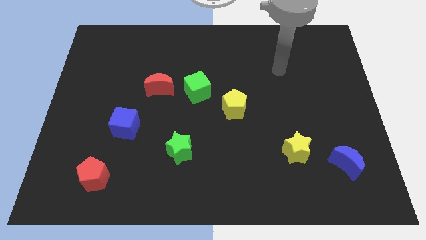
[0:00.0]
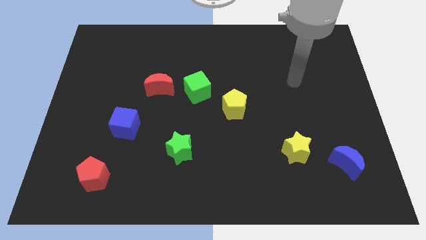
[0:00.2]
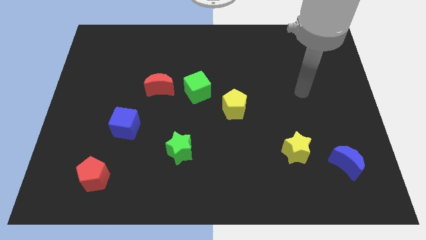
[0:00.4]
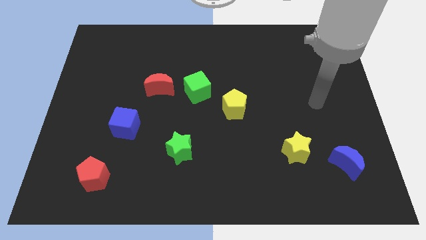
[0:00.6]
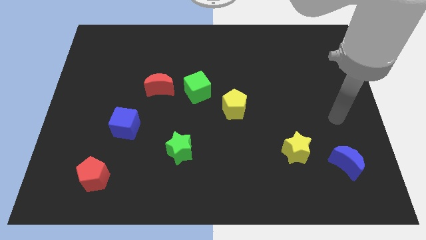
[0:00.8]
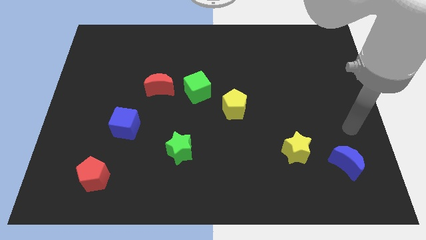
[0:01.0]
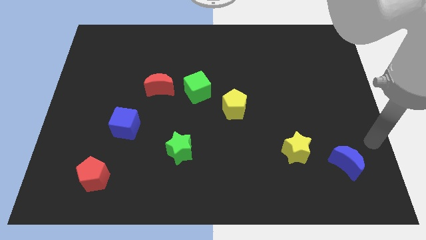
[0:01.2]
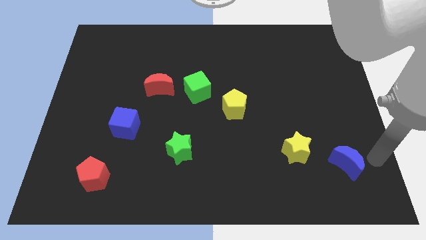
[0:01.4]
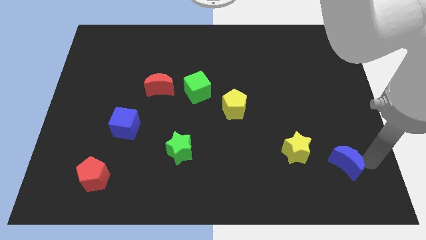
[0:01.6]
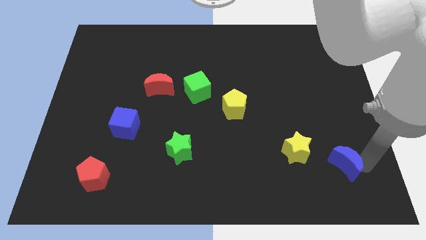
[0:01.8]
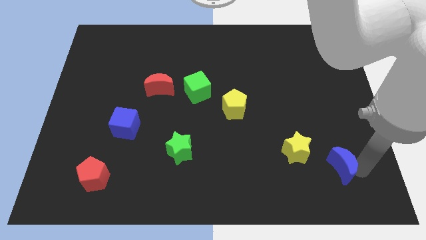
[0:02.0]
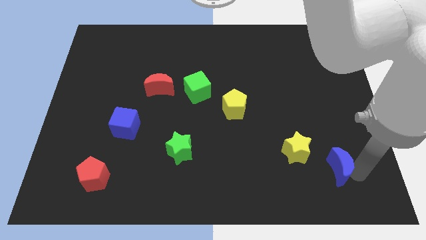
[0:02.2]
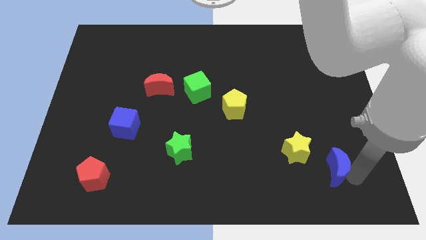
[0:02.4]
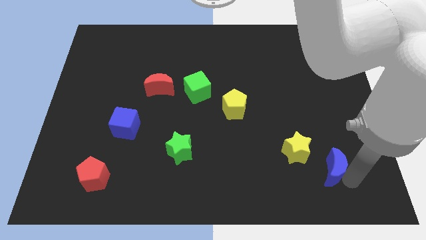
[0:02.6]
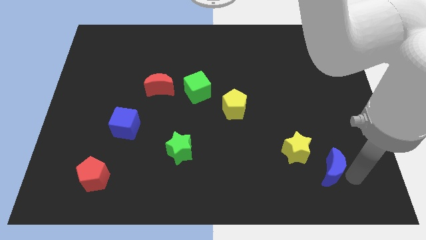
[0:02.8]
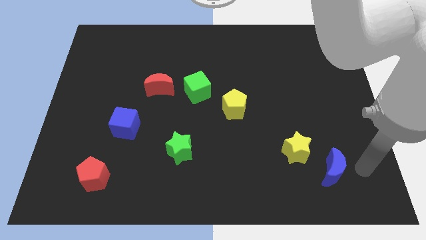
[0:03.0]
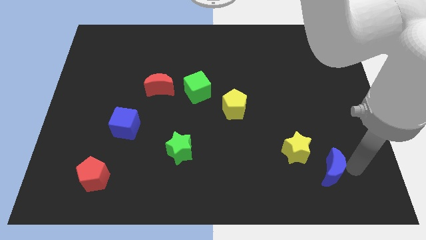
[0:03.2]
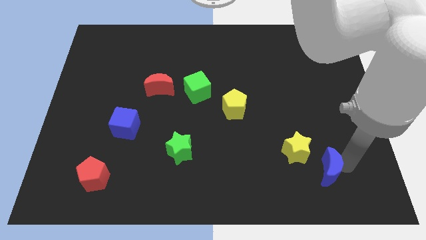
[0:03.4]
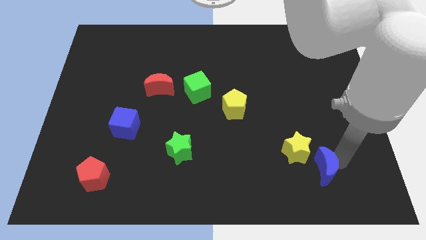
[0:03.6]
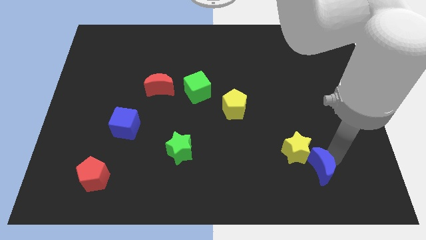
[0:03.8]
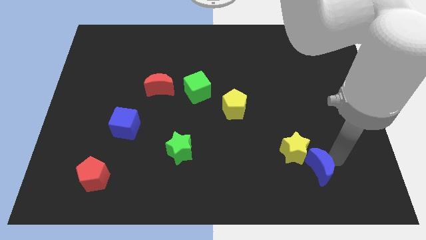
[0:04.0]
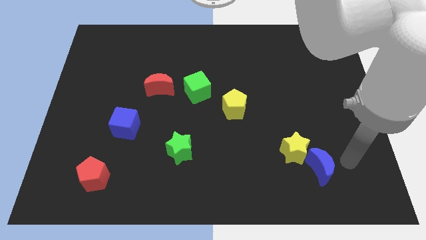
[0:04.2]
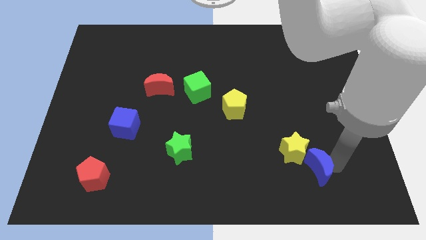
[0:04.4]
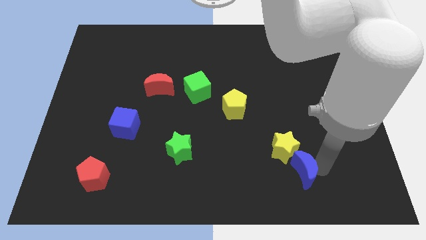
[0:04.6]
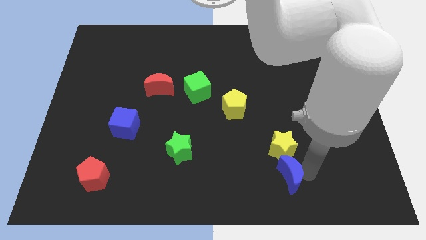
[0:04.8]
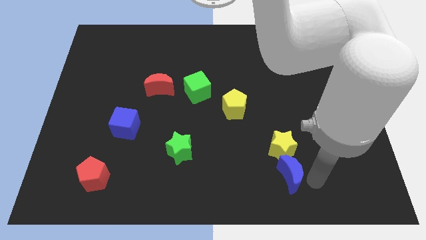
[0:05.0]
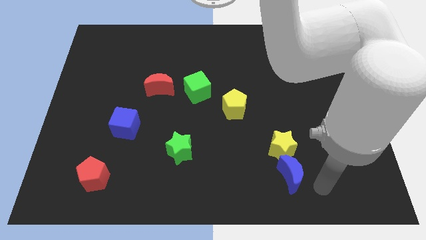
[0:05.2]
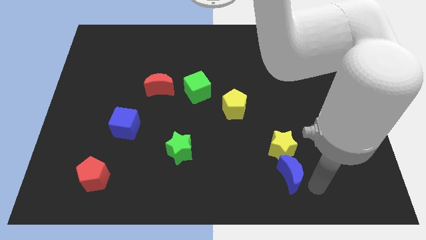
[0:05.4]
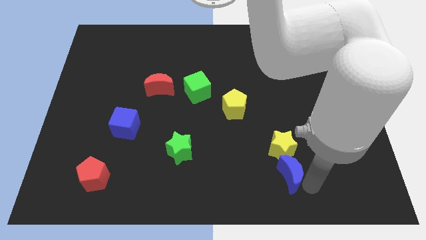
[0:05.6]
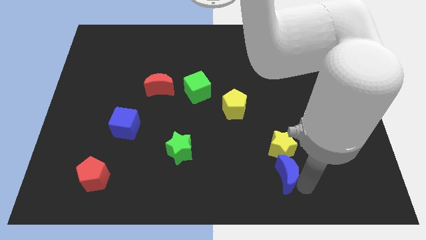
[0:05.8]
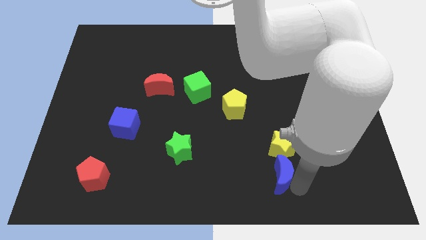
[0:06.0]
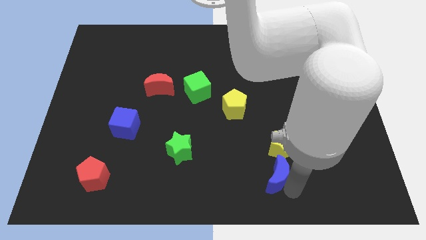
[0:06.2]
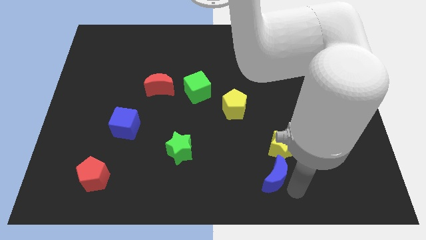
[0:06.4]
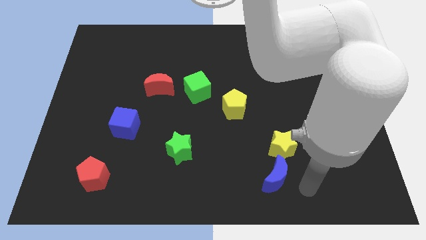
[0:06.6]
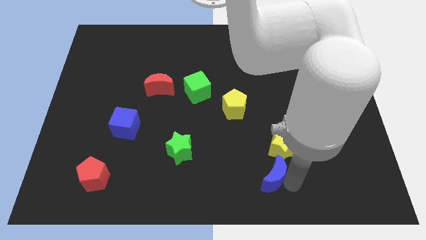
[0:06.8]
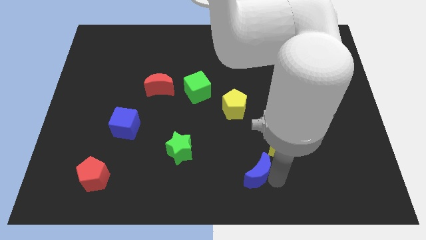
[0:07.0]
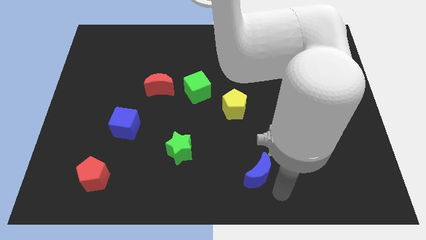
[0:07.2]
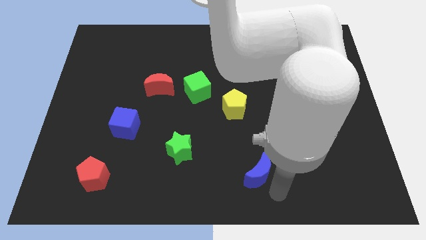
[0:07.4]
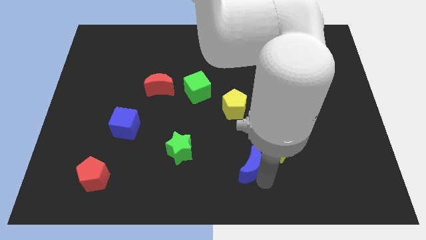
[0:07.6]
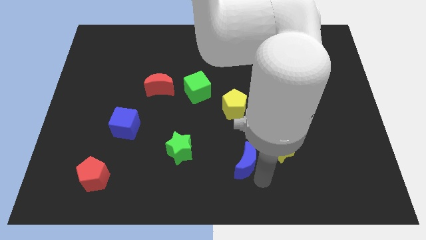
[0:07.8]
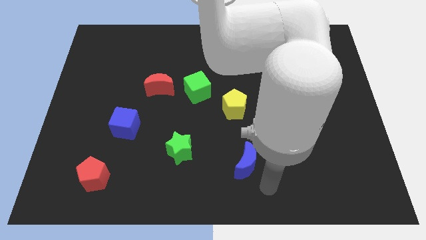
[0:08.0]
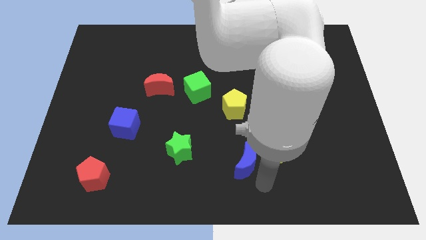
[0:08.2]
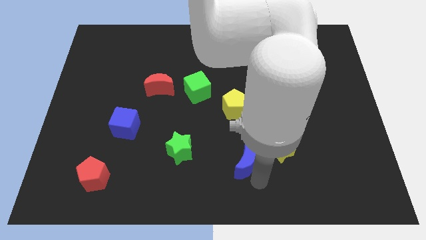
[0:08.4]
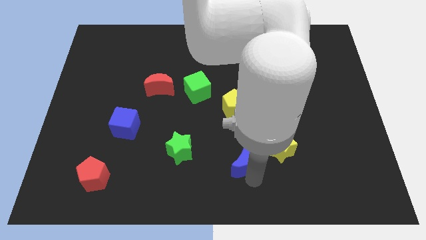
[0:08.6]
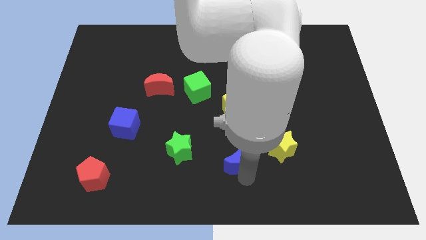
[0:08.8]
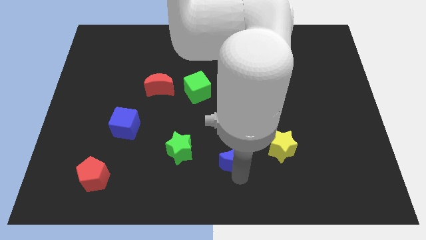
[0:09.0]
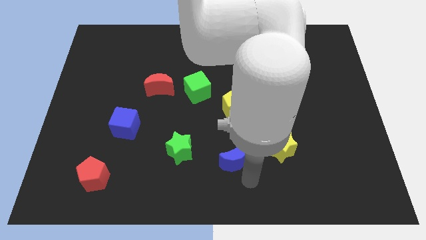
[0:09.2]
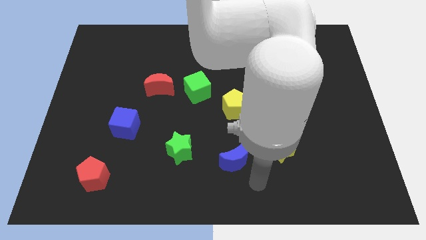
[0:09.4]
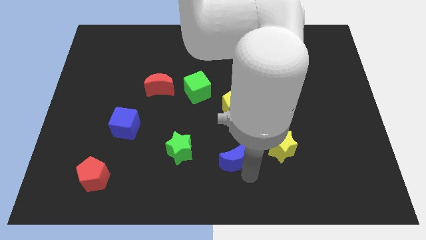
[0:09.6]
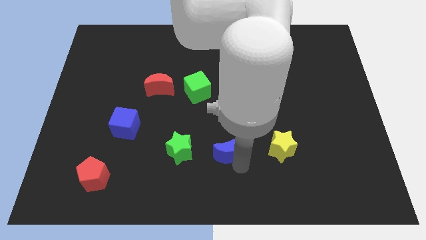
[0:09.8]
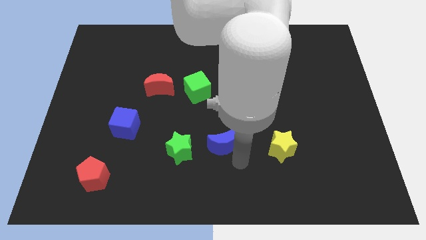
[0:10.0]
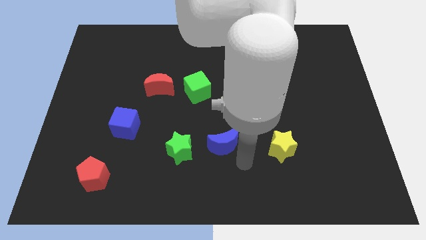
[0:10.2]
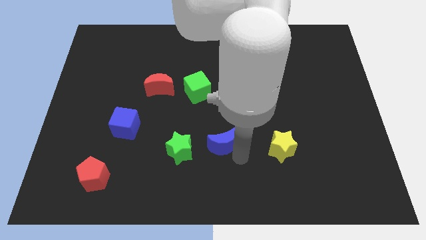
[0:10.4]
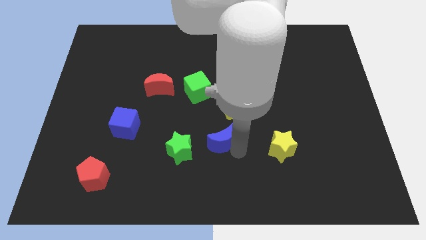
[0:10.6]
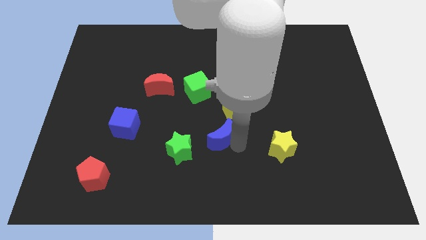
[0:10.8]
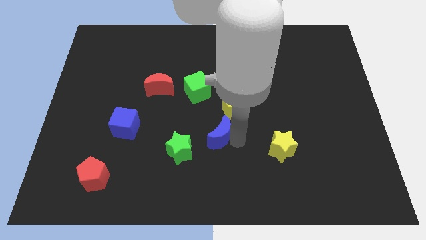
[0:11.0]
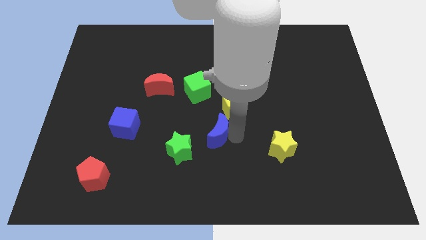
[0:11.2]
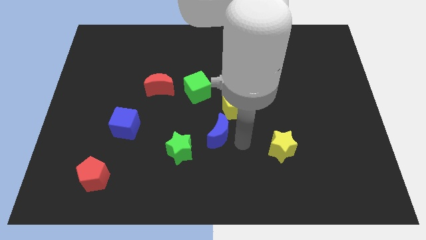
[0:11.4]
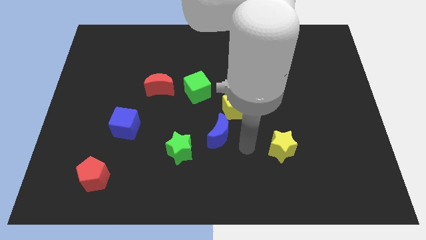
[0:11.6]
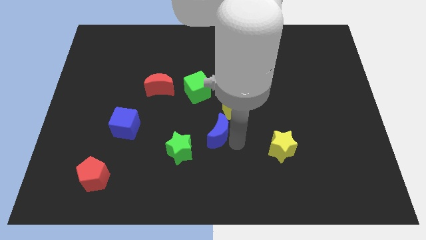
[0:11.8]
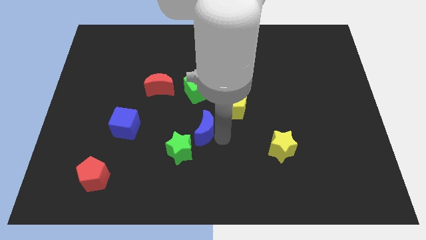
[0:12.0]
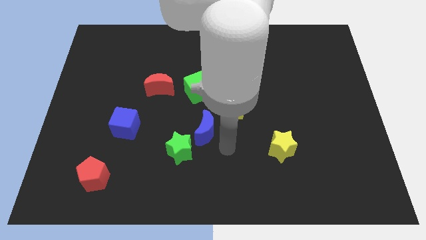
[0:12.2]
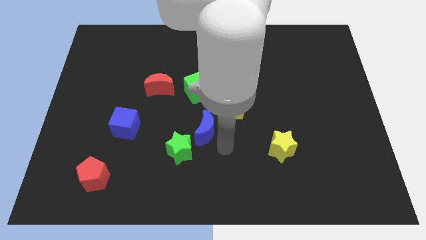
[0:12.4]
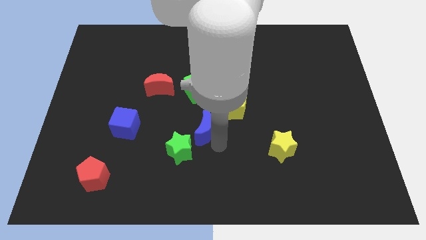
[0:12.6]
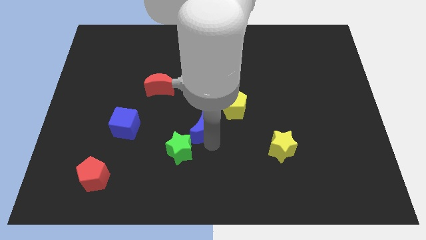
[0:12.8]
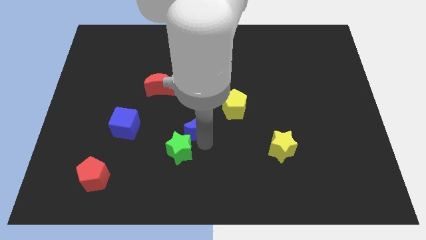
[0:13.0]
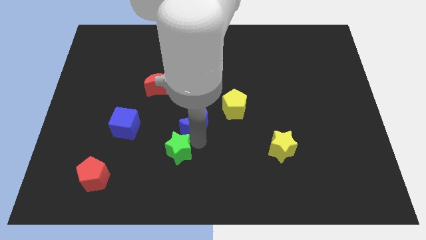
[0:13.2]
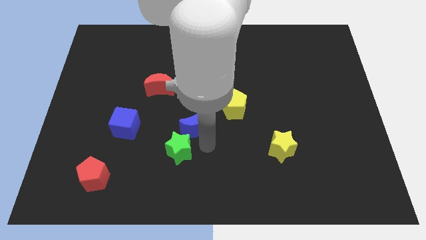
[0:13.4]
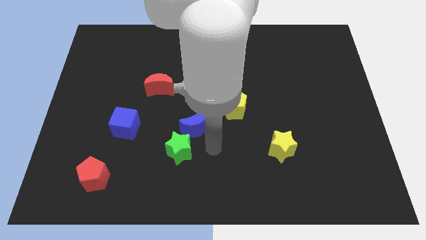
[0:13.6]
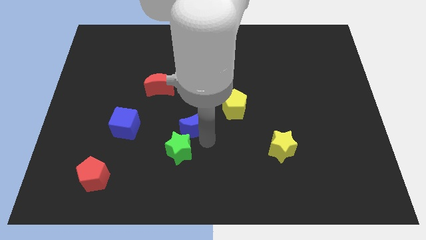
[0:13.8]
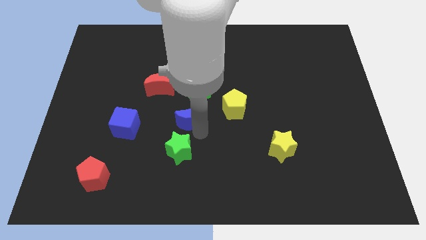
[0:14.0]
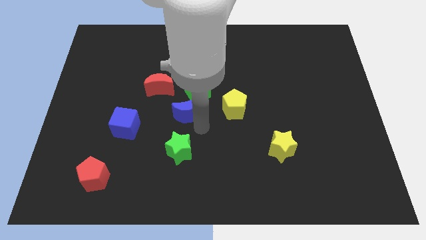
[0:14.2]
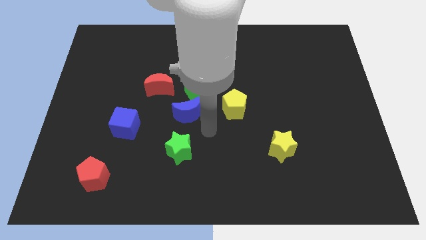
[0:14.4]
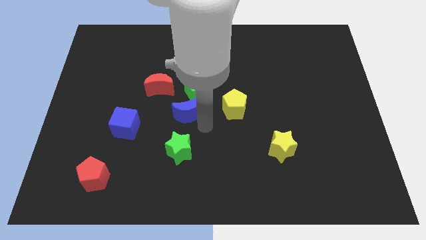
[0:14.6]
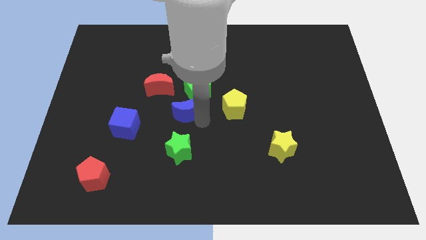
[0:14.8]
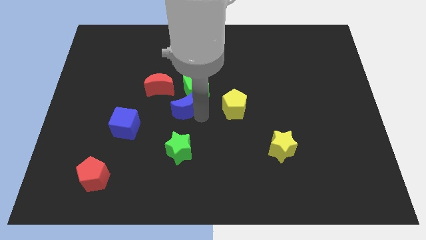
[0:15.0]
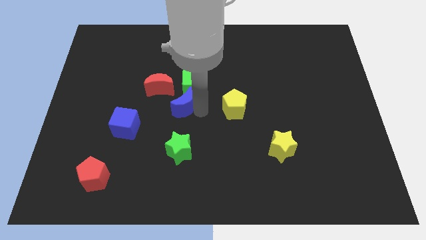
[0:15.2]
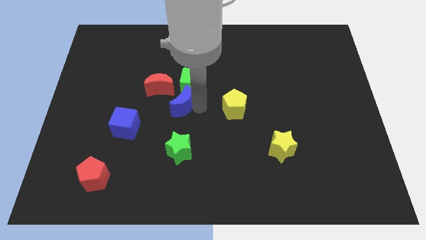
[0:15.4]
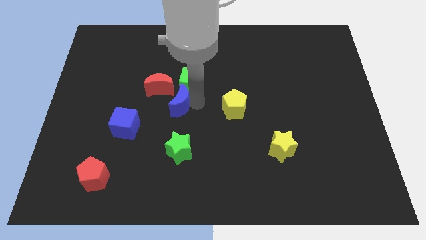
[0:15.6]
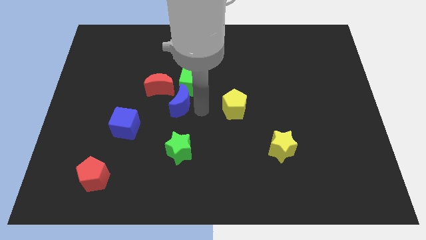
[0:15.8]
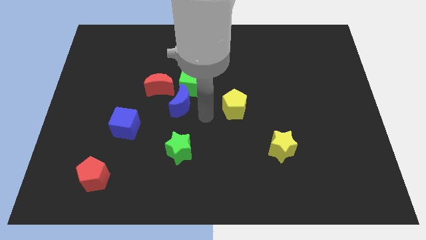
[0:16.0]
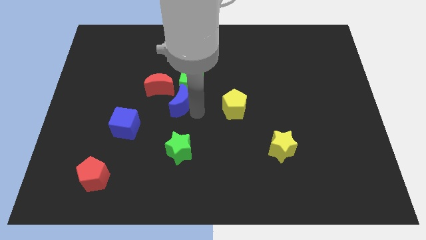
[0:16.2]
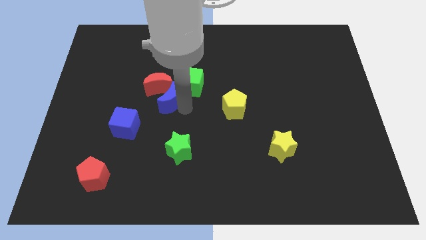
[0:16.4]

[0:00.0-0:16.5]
put the blue moon to the red moon
